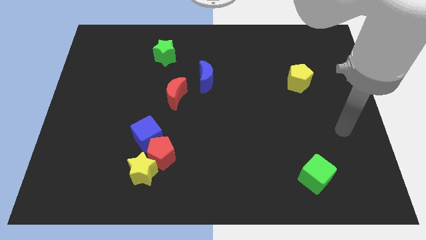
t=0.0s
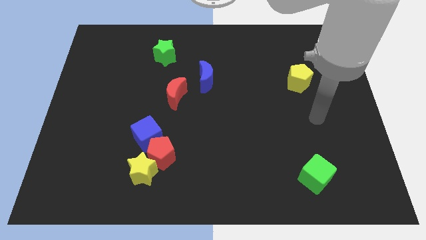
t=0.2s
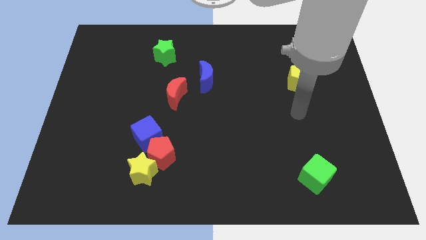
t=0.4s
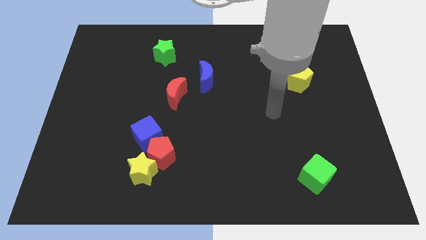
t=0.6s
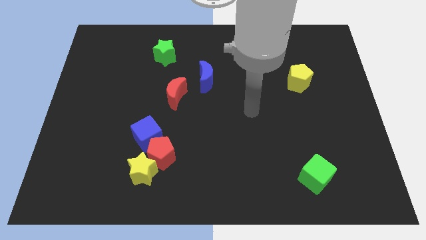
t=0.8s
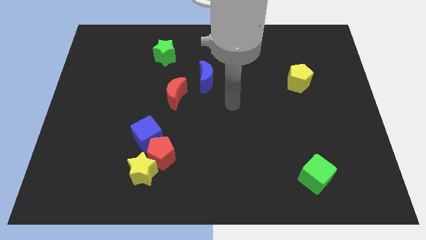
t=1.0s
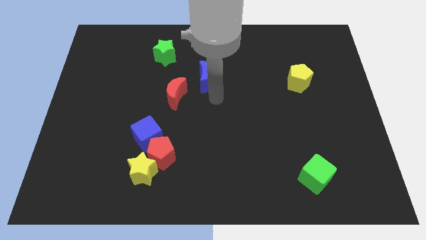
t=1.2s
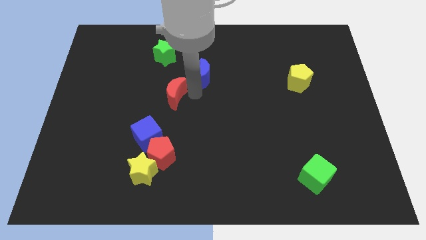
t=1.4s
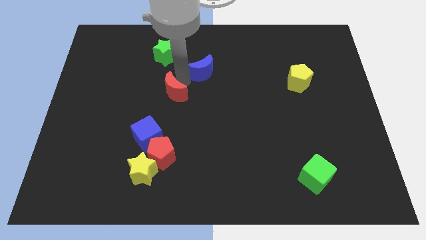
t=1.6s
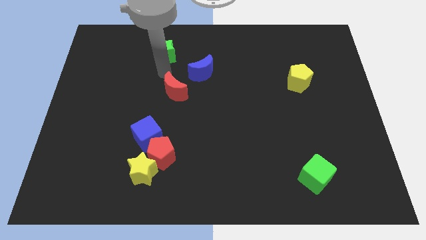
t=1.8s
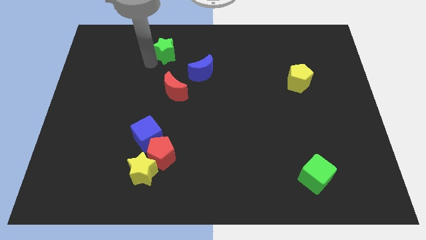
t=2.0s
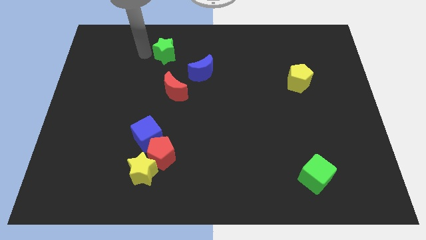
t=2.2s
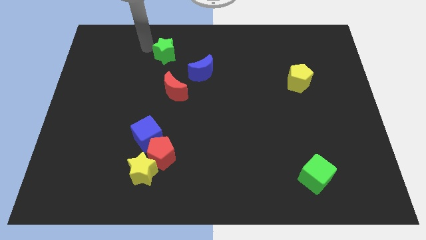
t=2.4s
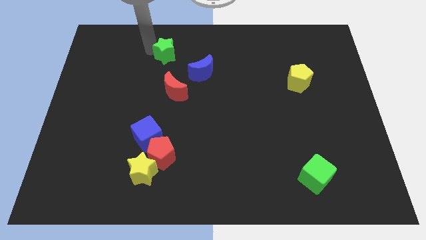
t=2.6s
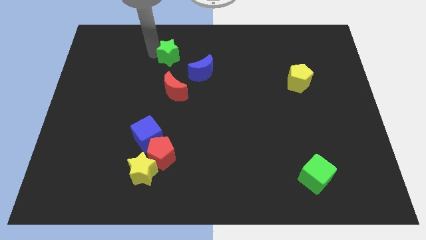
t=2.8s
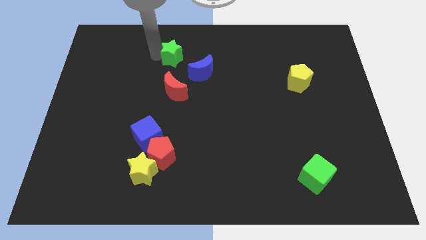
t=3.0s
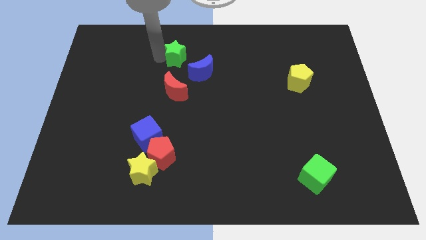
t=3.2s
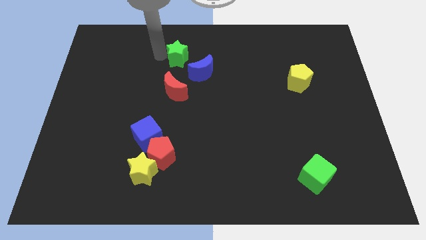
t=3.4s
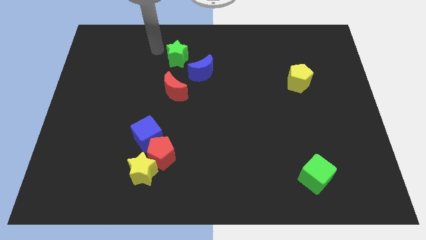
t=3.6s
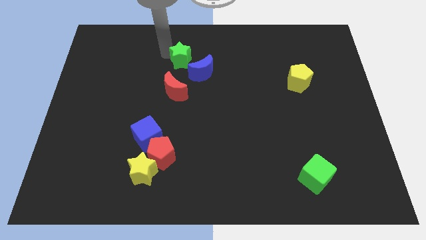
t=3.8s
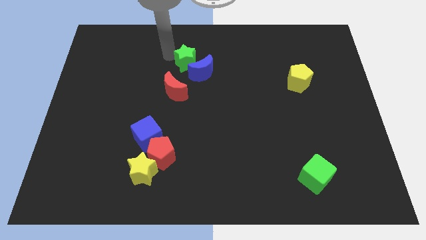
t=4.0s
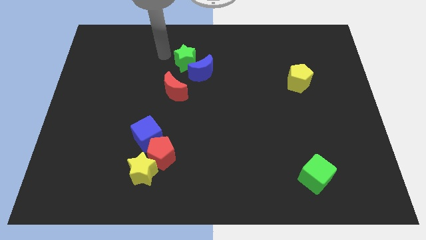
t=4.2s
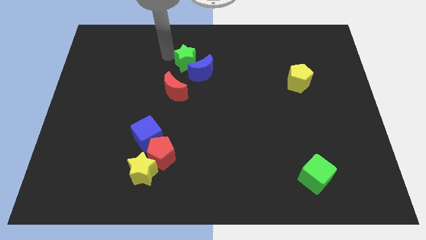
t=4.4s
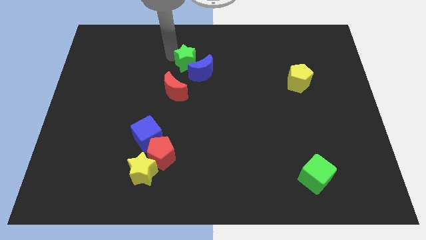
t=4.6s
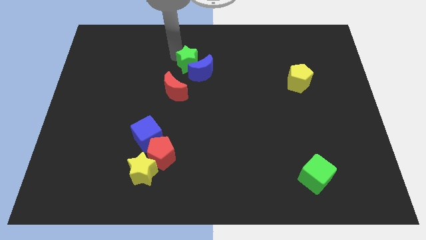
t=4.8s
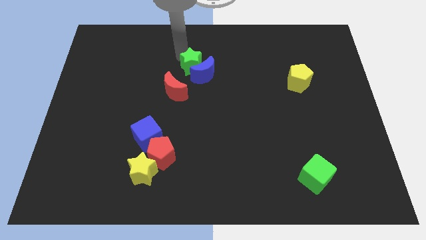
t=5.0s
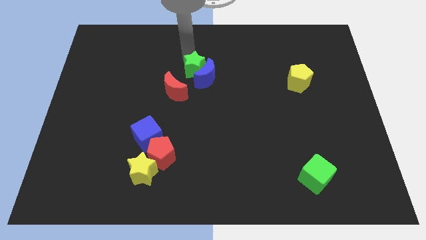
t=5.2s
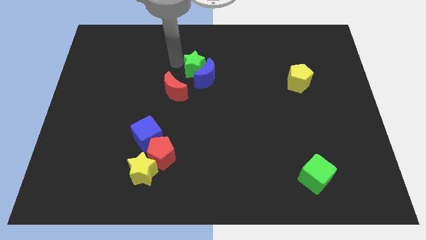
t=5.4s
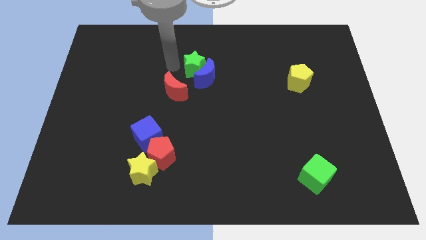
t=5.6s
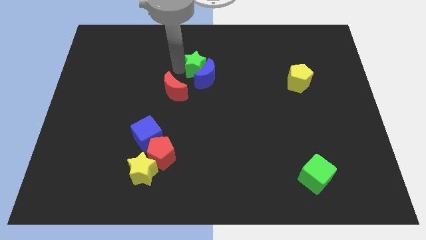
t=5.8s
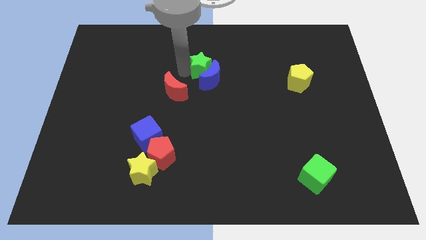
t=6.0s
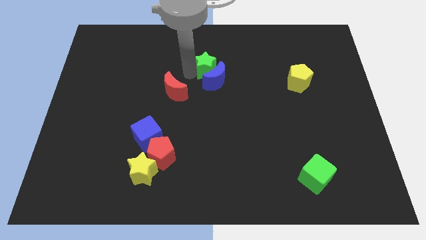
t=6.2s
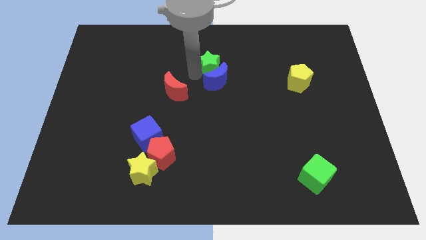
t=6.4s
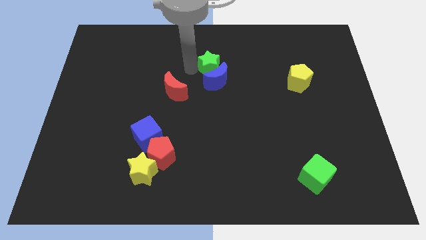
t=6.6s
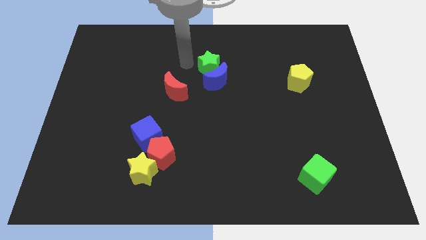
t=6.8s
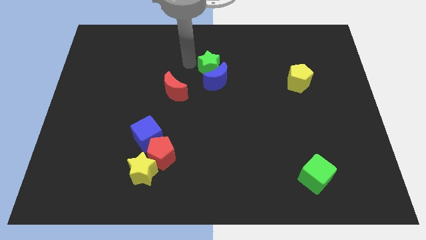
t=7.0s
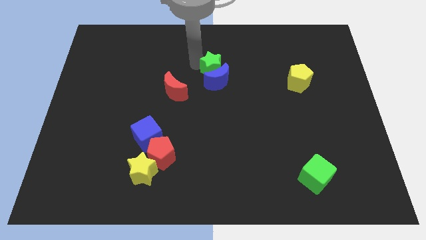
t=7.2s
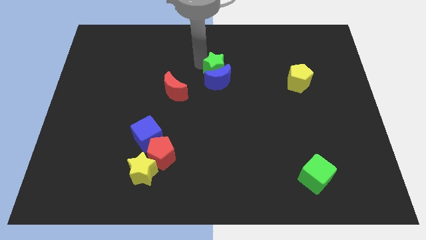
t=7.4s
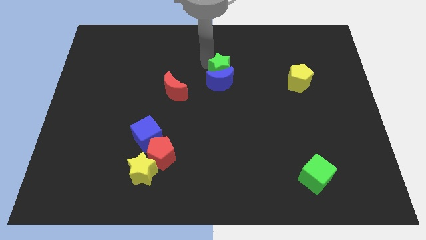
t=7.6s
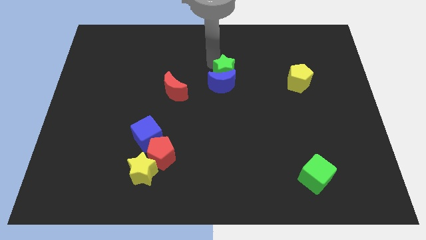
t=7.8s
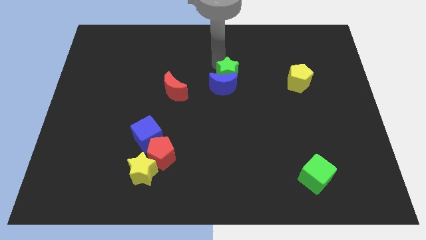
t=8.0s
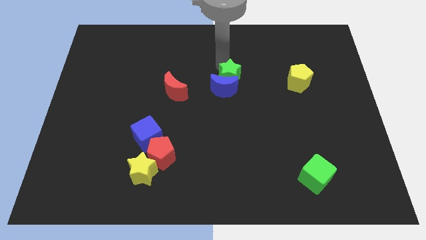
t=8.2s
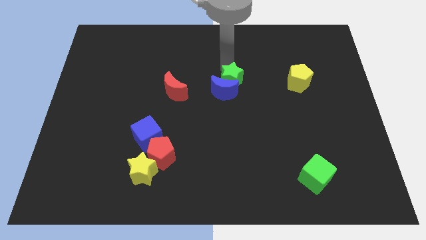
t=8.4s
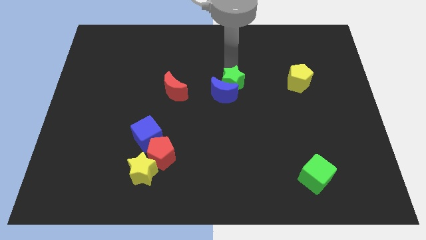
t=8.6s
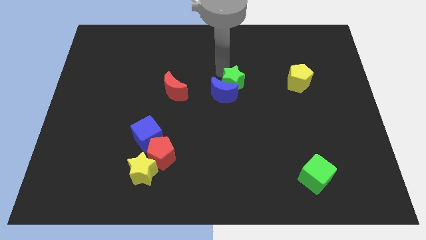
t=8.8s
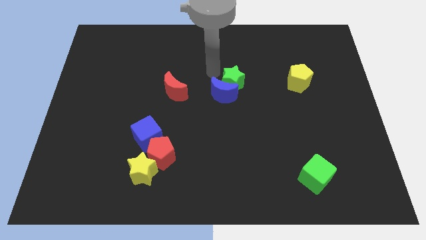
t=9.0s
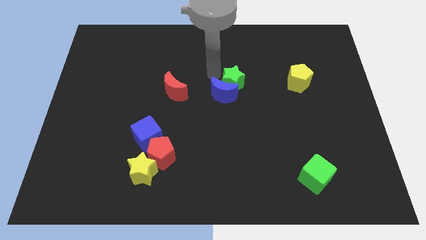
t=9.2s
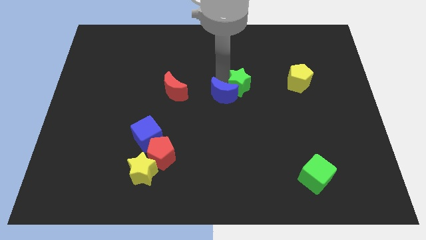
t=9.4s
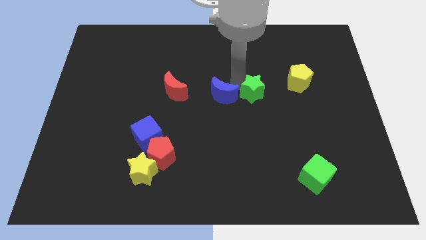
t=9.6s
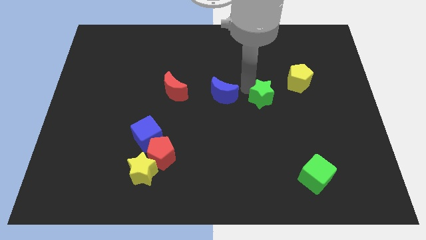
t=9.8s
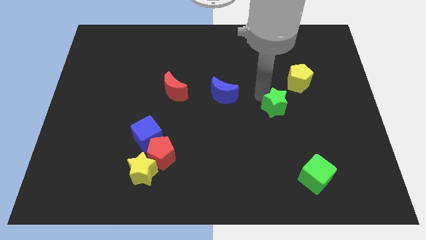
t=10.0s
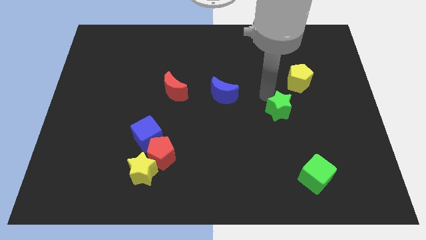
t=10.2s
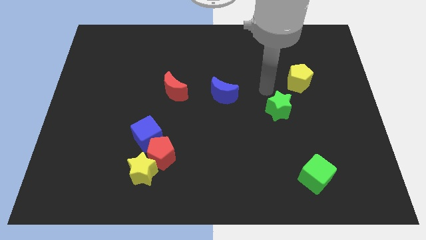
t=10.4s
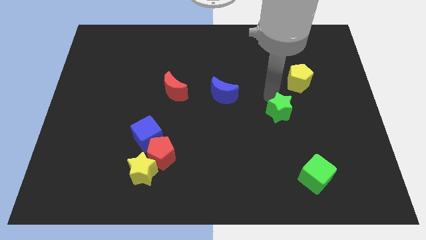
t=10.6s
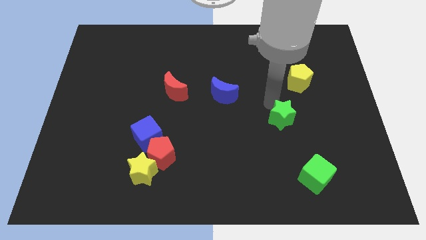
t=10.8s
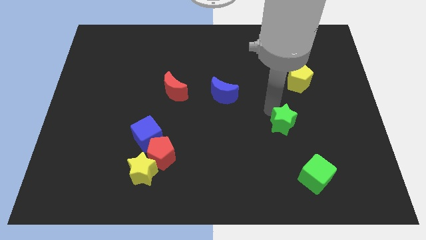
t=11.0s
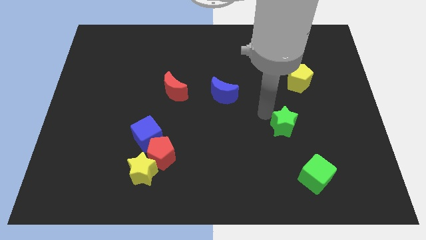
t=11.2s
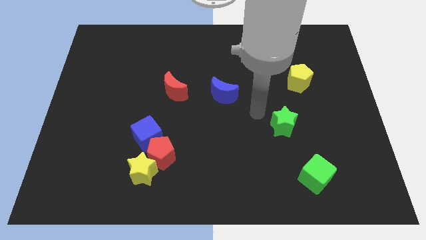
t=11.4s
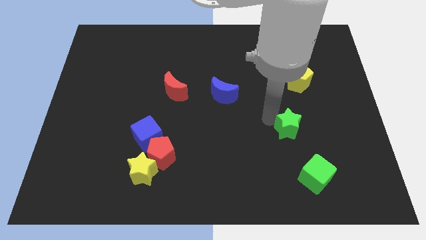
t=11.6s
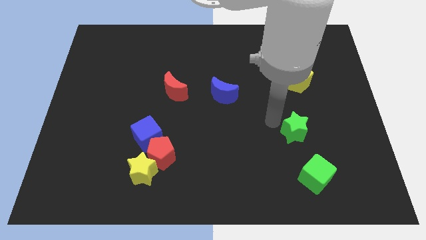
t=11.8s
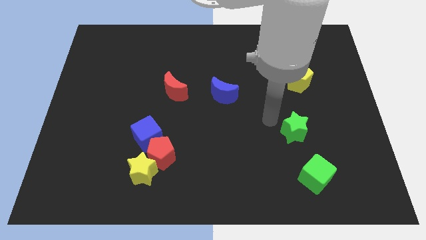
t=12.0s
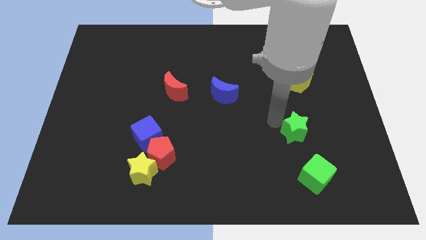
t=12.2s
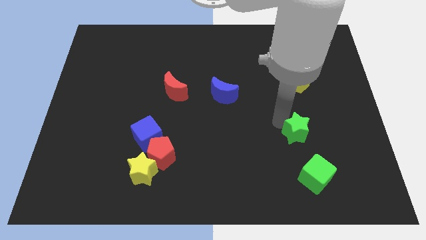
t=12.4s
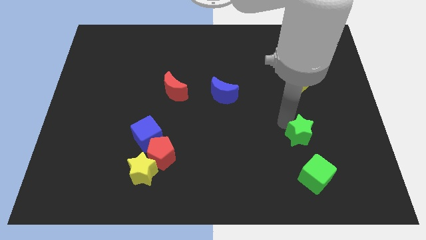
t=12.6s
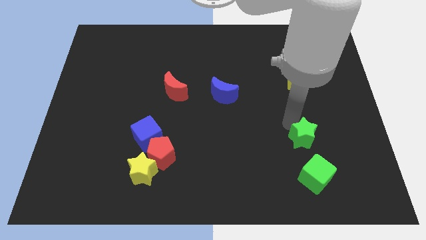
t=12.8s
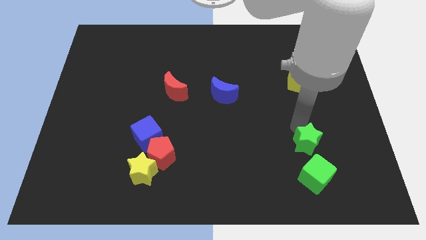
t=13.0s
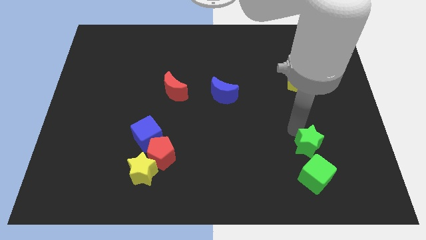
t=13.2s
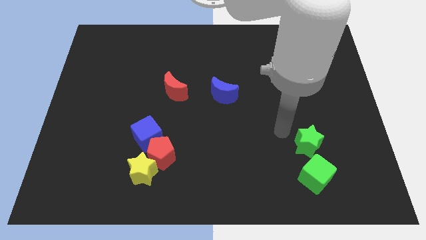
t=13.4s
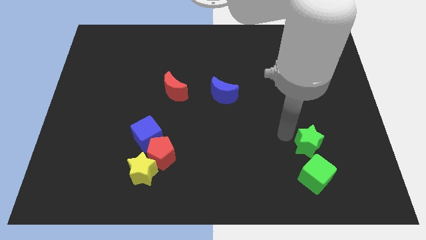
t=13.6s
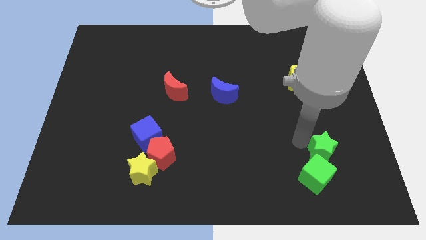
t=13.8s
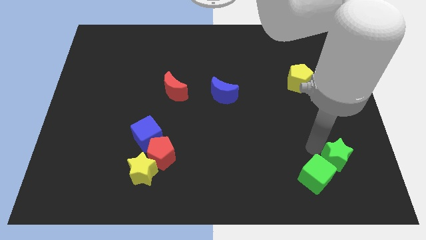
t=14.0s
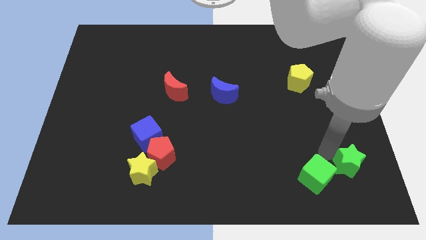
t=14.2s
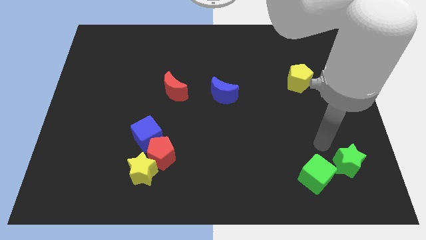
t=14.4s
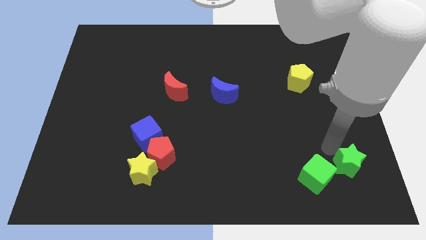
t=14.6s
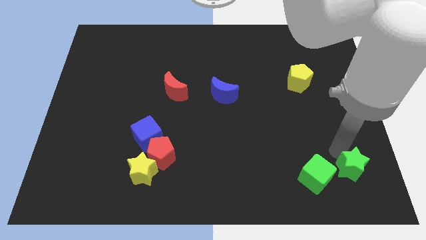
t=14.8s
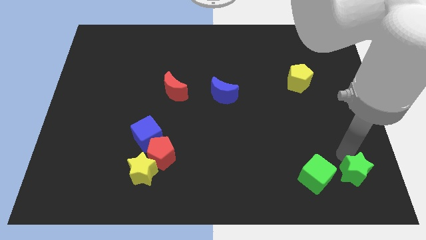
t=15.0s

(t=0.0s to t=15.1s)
put the green star to the lower right corner
